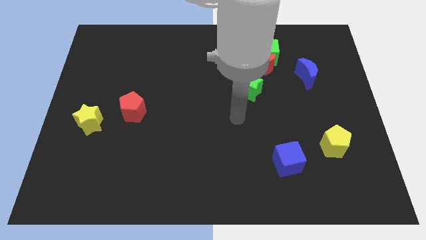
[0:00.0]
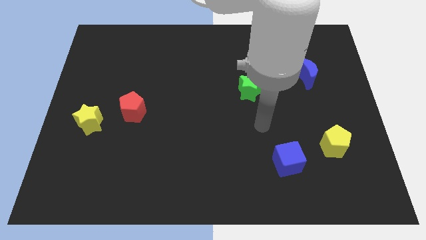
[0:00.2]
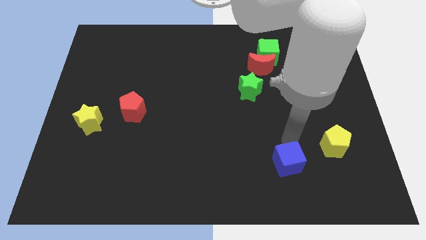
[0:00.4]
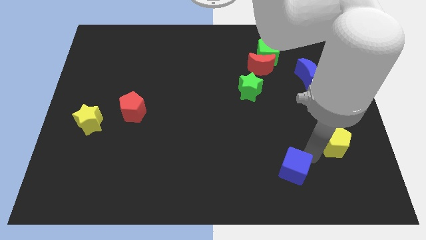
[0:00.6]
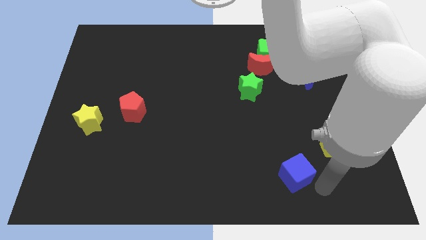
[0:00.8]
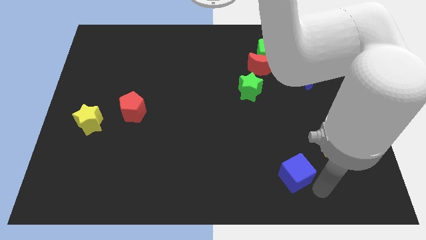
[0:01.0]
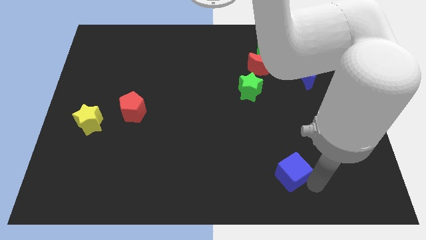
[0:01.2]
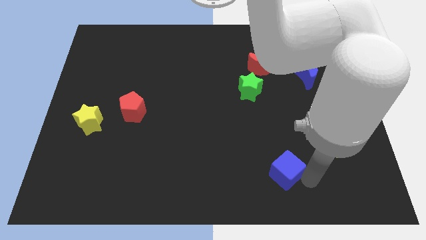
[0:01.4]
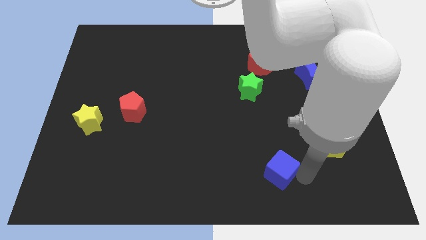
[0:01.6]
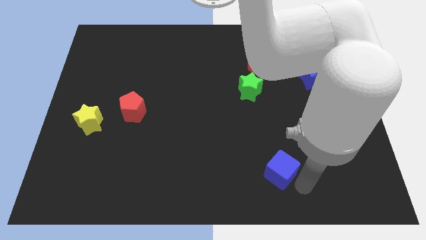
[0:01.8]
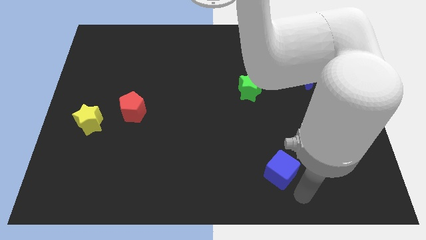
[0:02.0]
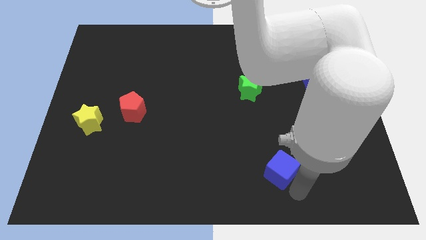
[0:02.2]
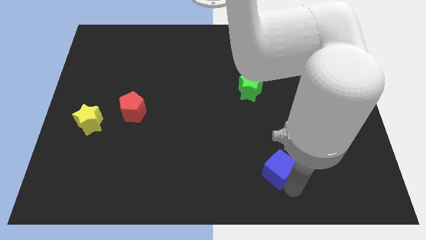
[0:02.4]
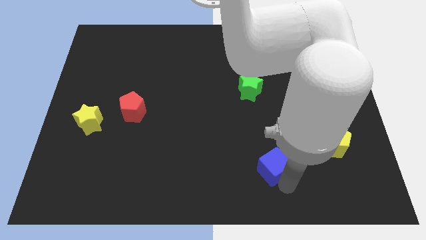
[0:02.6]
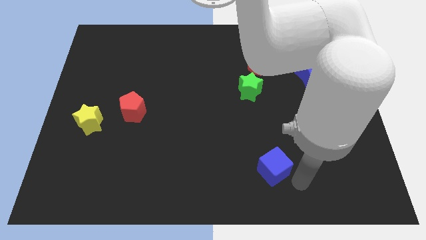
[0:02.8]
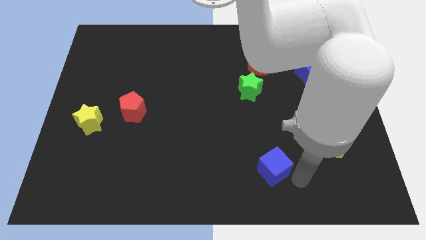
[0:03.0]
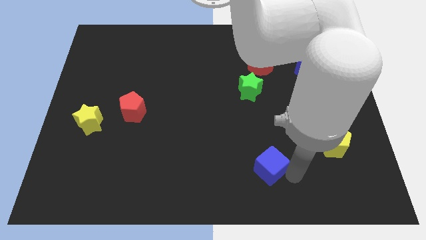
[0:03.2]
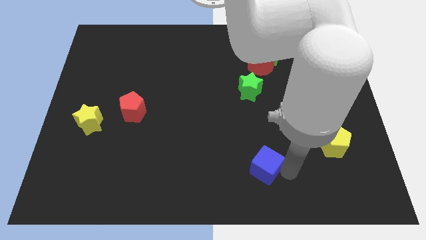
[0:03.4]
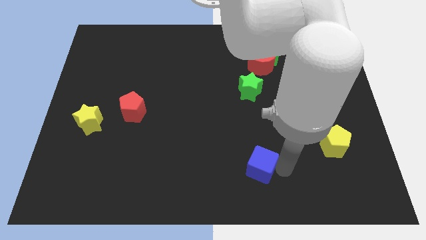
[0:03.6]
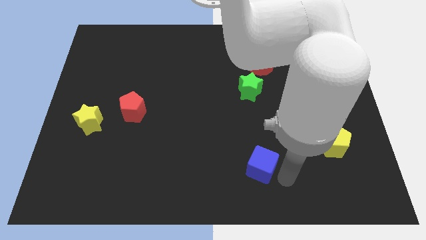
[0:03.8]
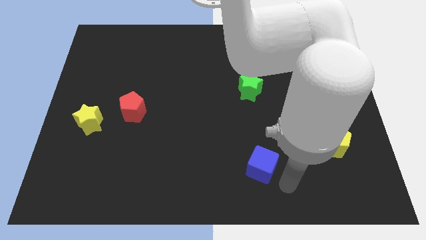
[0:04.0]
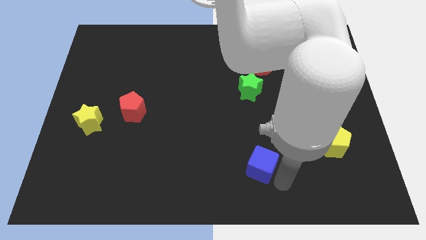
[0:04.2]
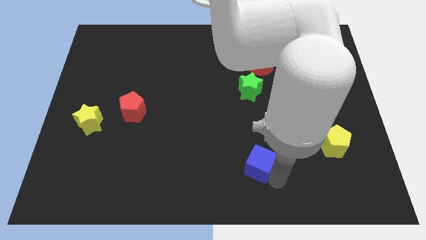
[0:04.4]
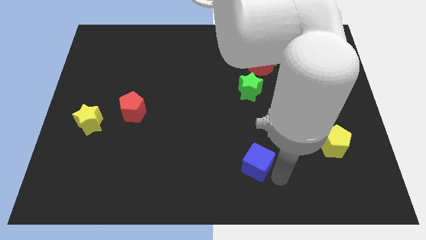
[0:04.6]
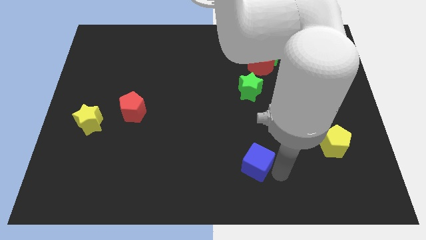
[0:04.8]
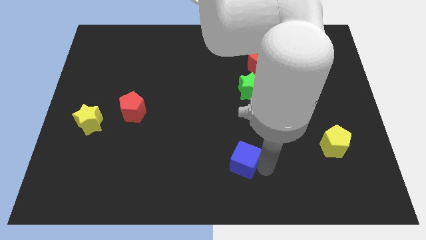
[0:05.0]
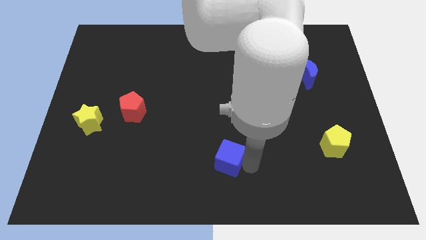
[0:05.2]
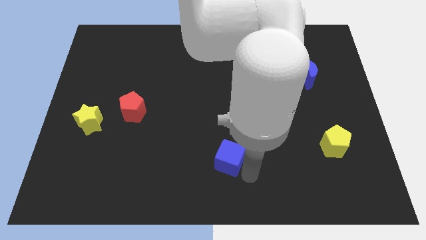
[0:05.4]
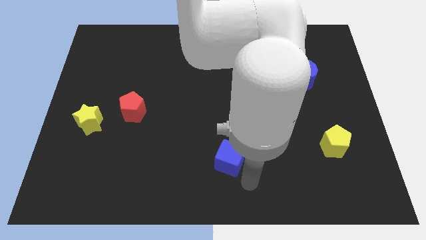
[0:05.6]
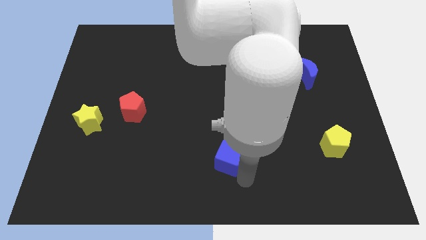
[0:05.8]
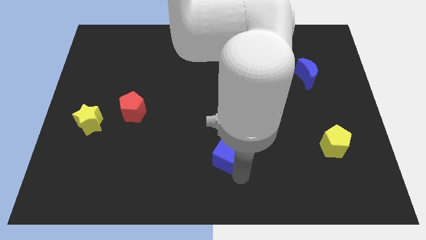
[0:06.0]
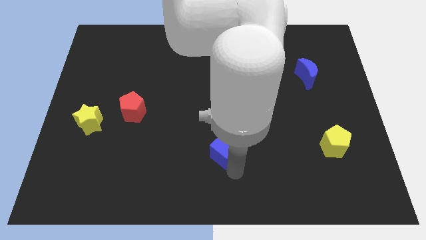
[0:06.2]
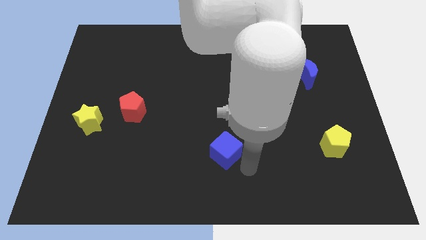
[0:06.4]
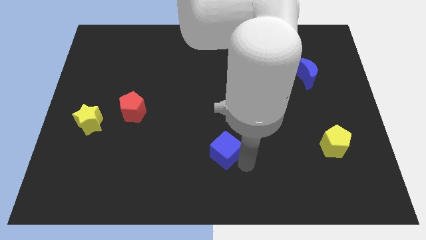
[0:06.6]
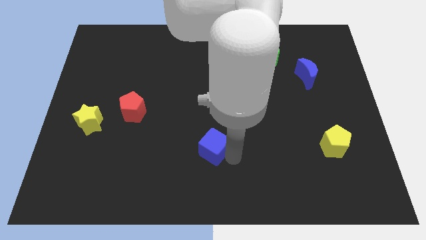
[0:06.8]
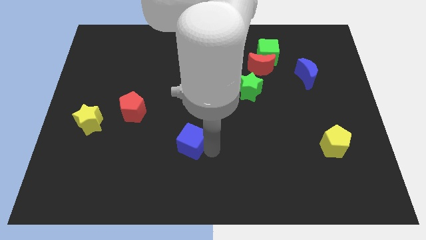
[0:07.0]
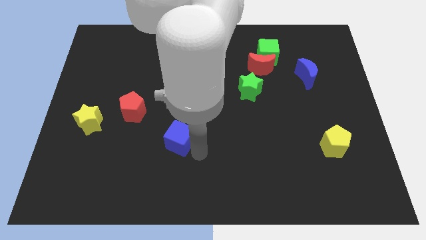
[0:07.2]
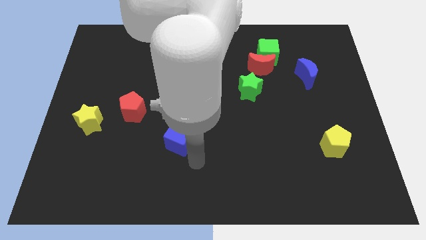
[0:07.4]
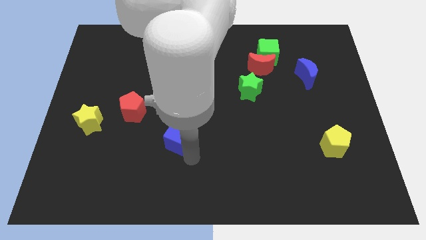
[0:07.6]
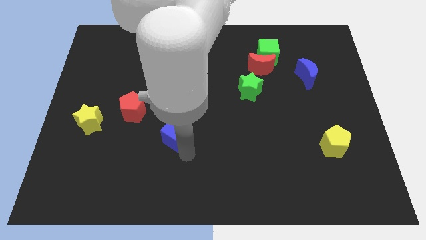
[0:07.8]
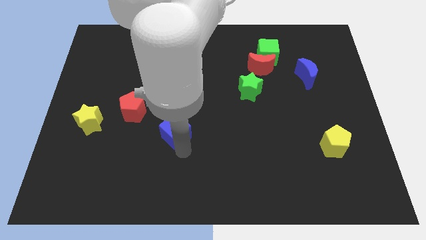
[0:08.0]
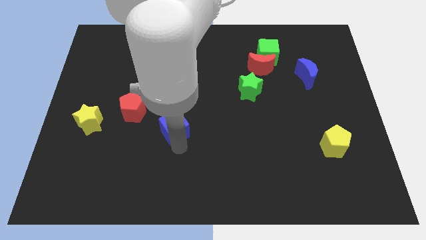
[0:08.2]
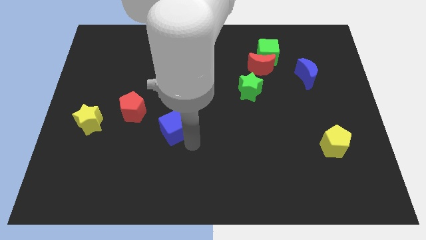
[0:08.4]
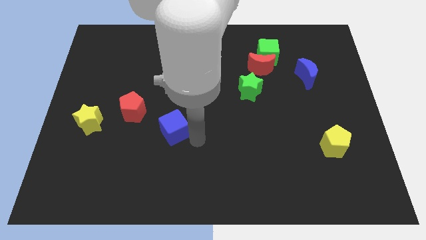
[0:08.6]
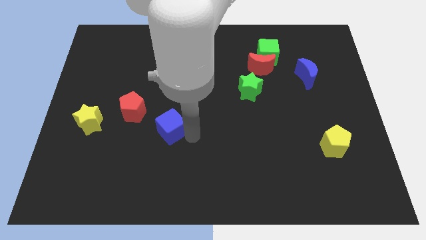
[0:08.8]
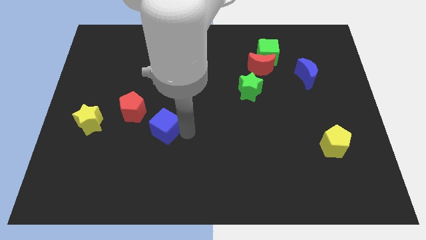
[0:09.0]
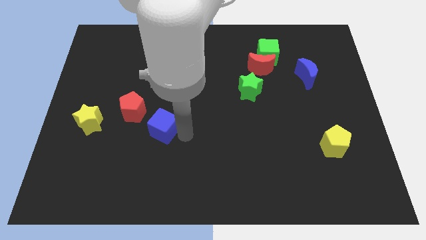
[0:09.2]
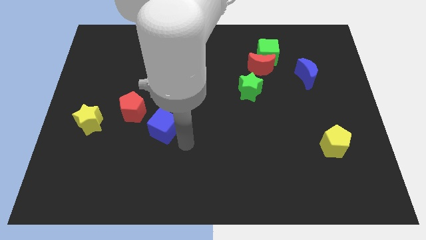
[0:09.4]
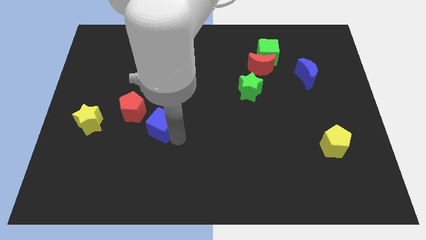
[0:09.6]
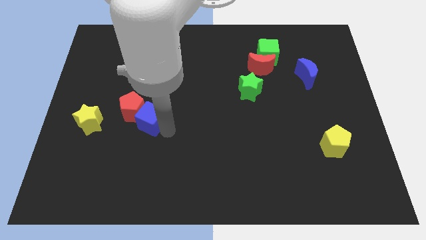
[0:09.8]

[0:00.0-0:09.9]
put the blue cube towards the red pentagon

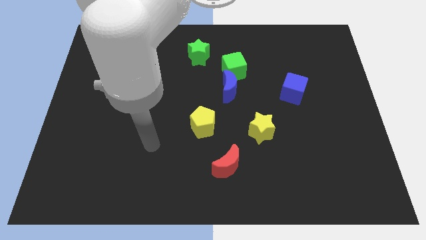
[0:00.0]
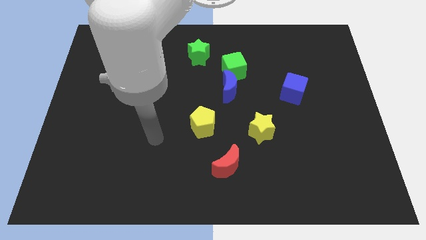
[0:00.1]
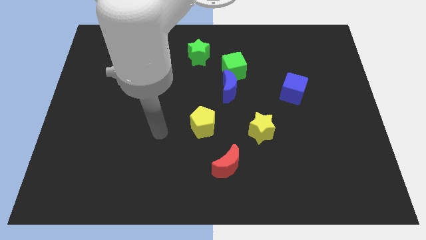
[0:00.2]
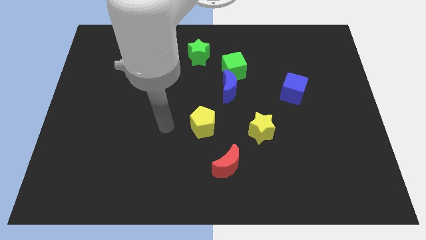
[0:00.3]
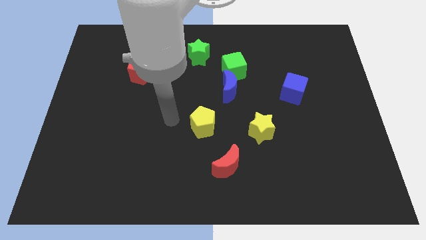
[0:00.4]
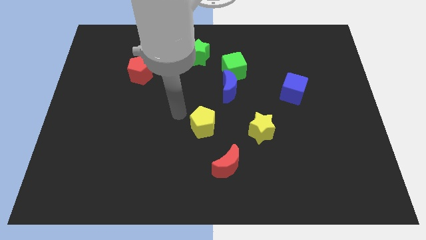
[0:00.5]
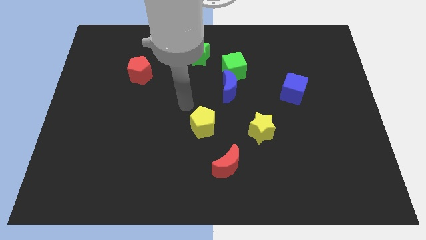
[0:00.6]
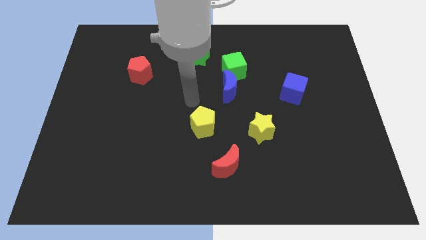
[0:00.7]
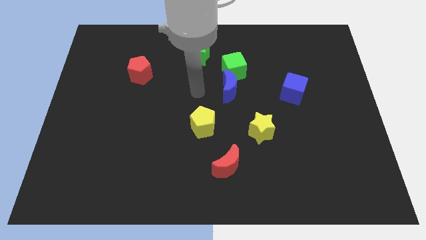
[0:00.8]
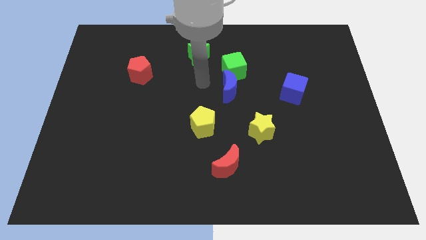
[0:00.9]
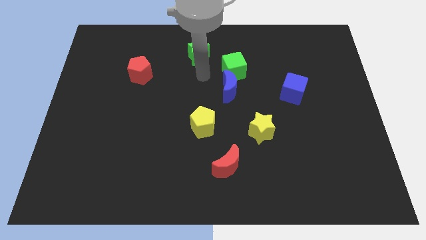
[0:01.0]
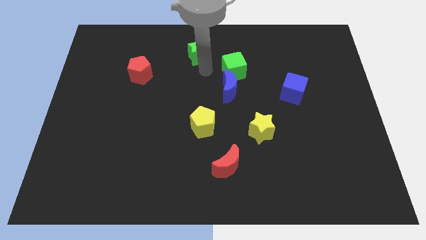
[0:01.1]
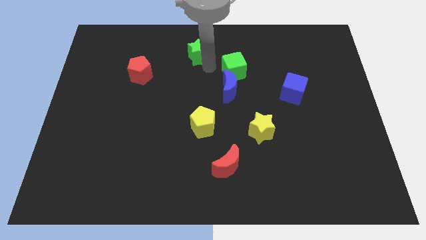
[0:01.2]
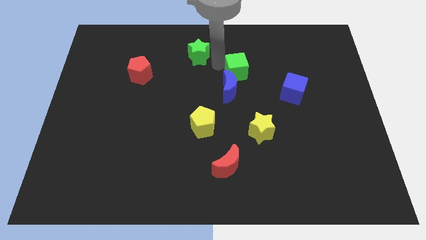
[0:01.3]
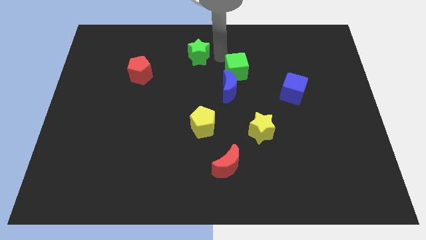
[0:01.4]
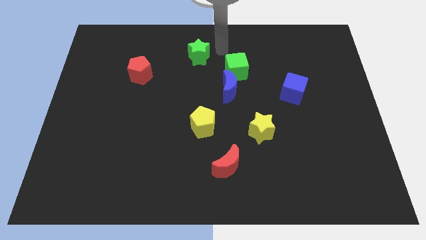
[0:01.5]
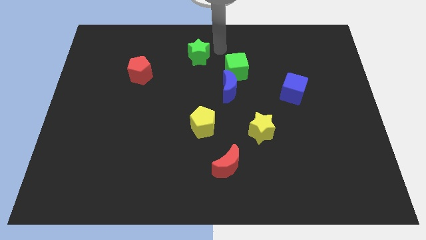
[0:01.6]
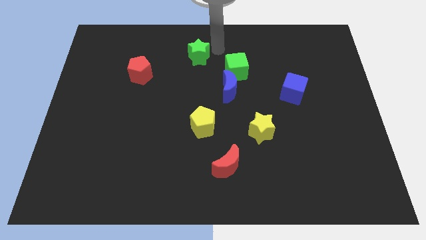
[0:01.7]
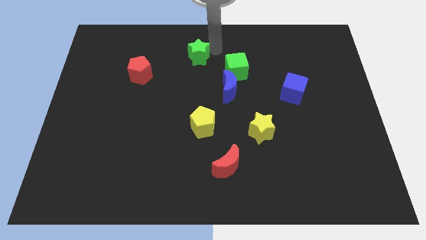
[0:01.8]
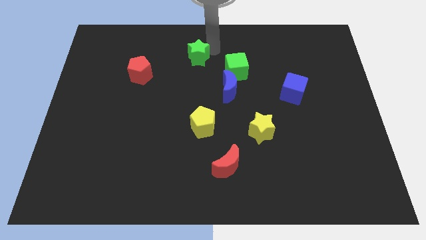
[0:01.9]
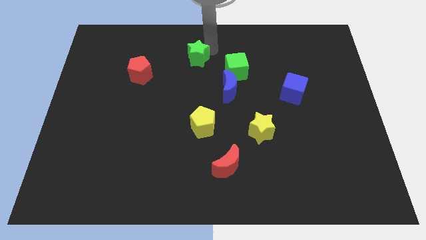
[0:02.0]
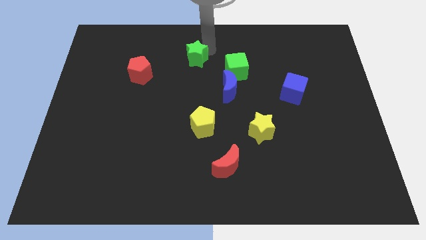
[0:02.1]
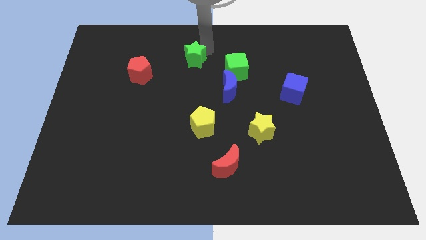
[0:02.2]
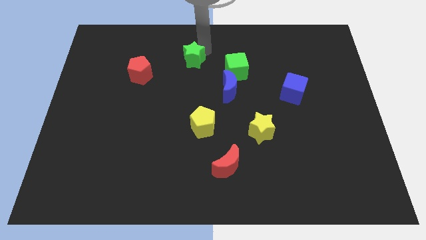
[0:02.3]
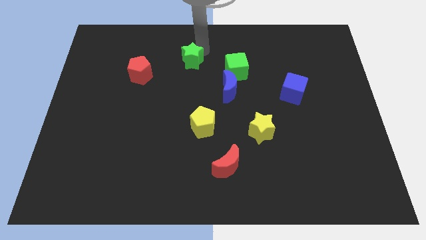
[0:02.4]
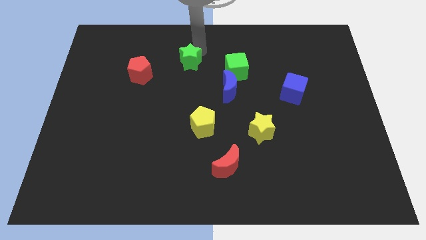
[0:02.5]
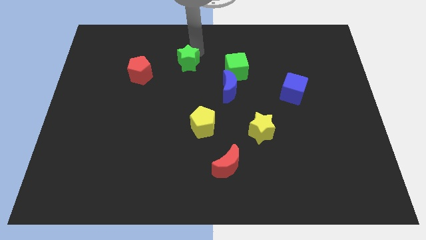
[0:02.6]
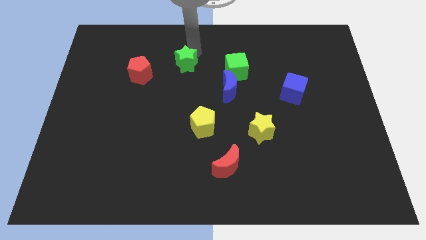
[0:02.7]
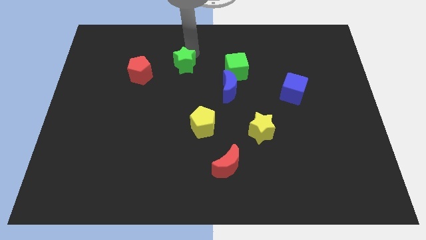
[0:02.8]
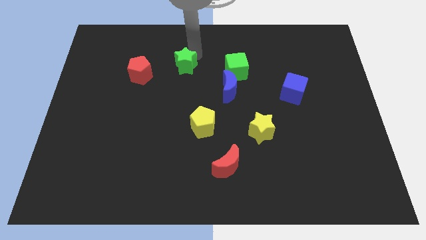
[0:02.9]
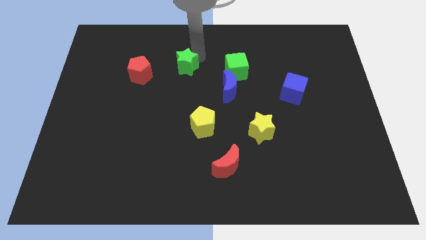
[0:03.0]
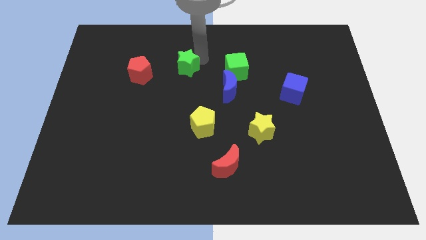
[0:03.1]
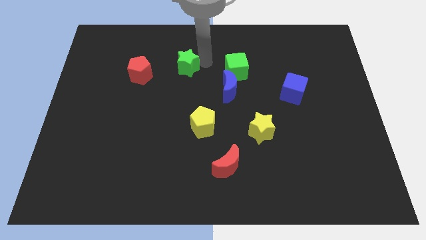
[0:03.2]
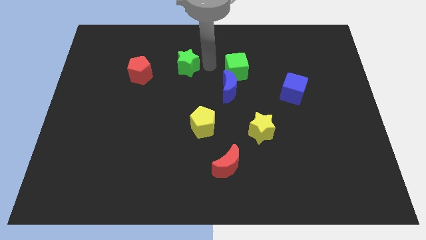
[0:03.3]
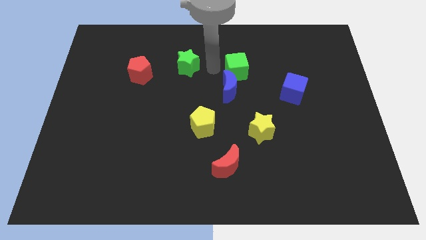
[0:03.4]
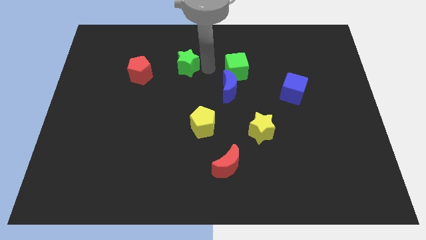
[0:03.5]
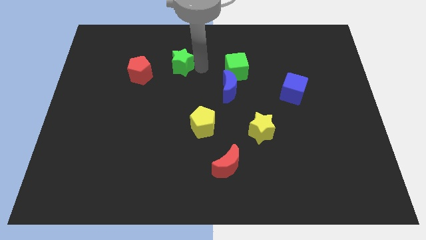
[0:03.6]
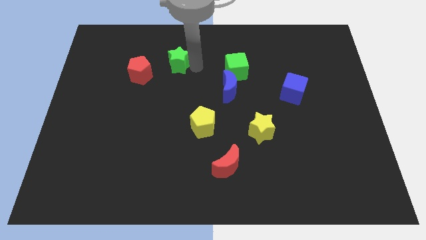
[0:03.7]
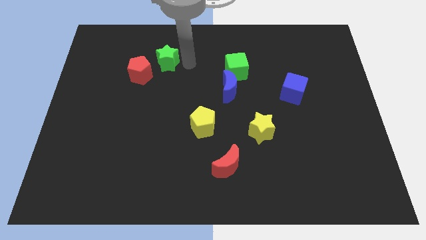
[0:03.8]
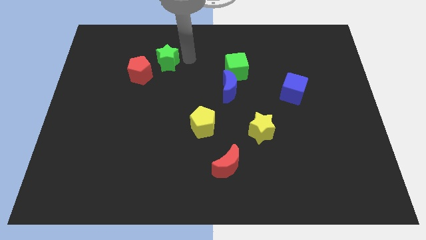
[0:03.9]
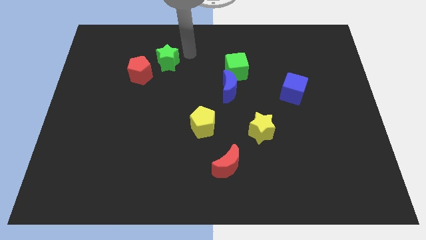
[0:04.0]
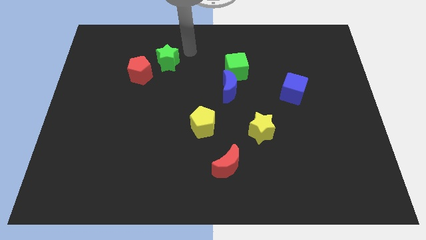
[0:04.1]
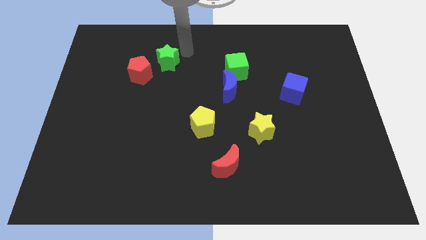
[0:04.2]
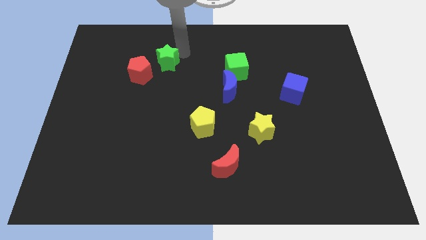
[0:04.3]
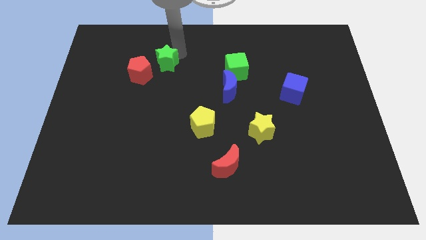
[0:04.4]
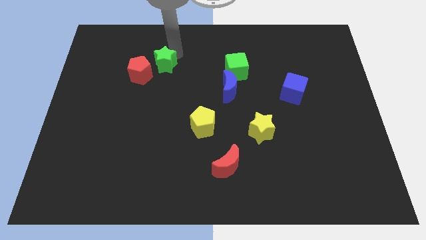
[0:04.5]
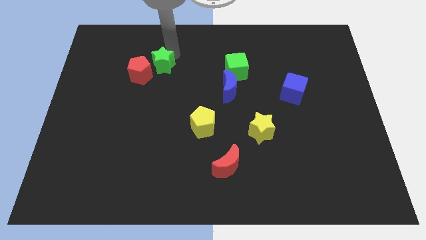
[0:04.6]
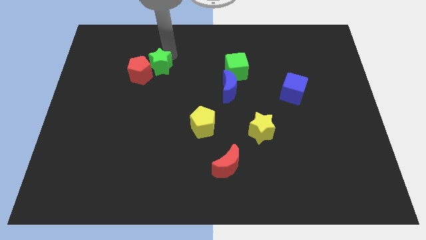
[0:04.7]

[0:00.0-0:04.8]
put the green star to the red pentagon
